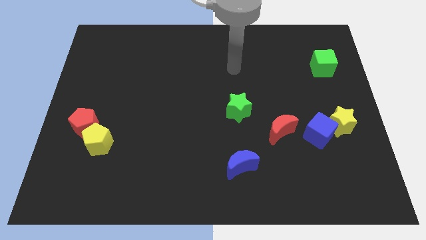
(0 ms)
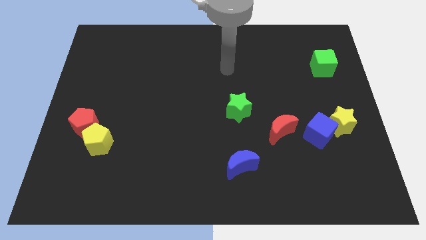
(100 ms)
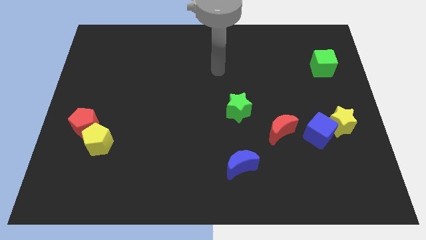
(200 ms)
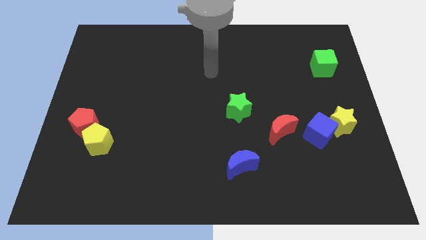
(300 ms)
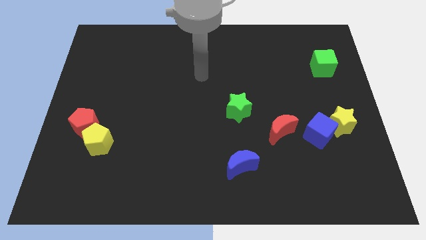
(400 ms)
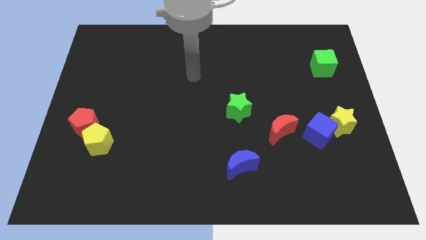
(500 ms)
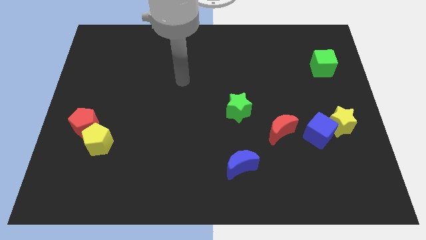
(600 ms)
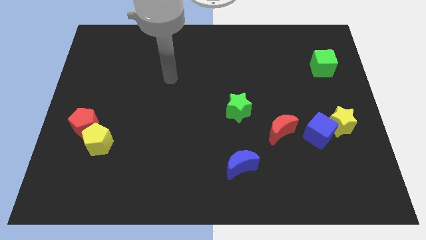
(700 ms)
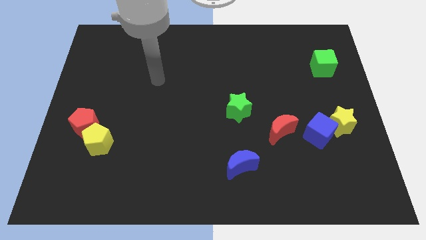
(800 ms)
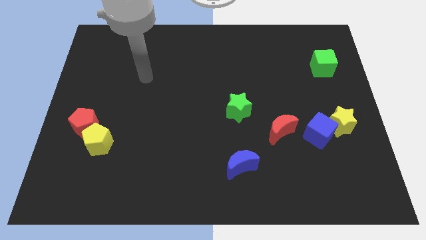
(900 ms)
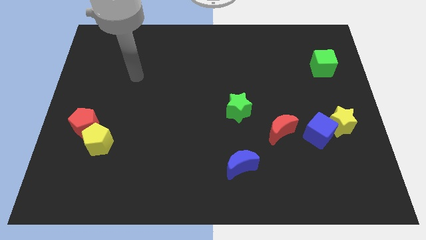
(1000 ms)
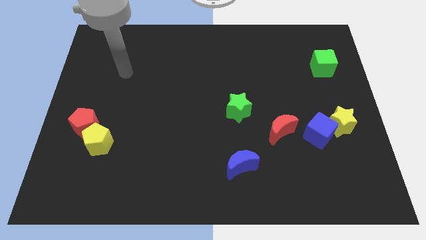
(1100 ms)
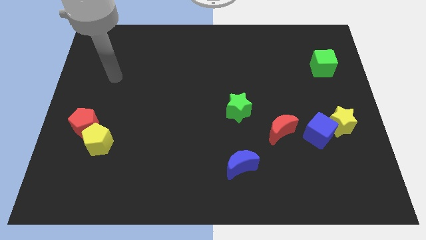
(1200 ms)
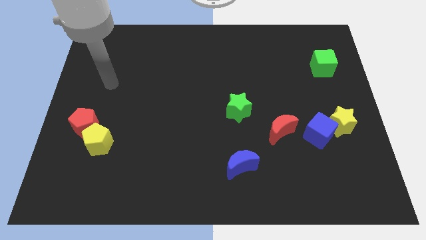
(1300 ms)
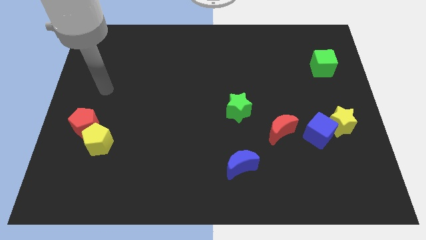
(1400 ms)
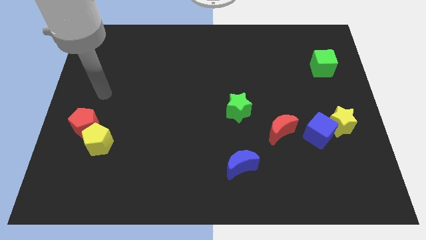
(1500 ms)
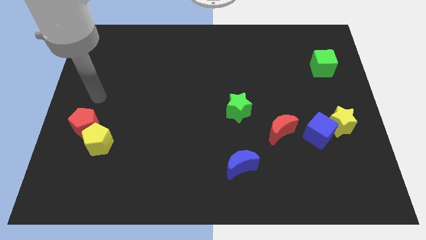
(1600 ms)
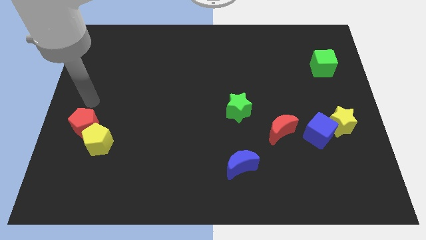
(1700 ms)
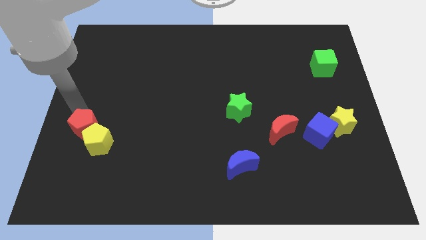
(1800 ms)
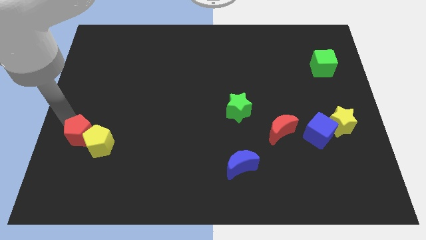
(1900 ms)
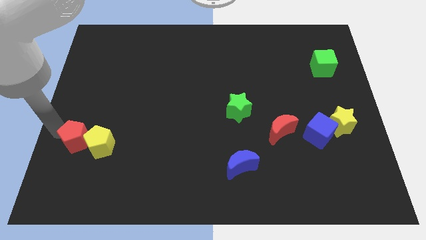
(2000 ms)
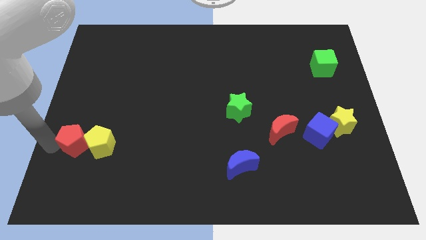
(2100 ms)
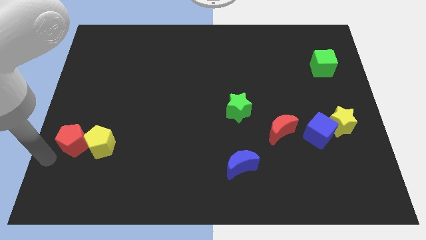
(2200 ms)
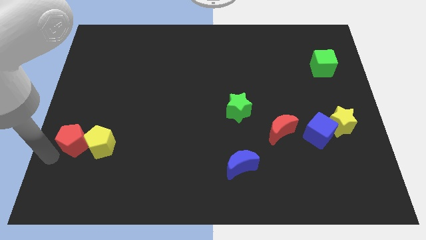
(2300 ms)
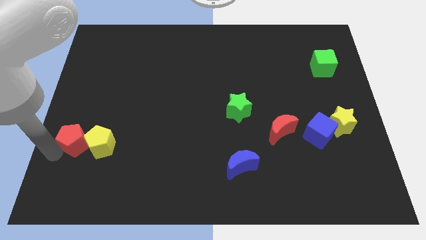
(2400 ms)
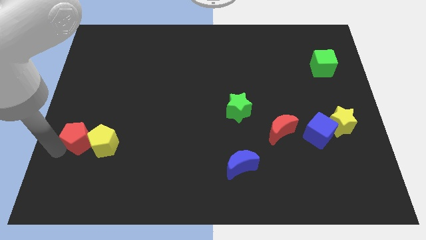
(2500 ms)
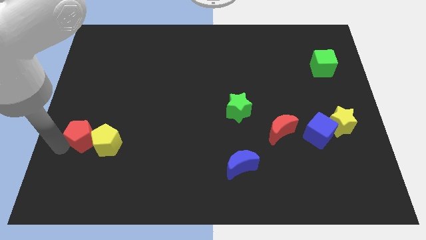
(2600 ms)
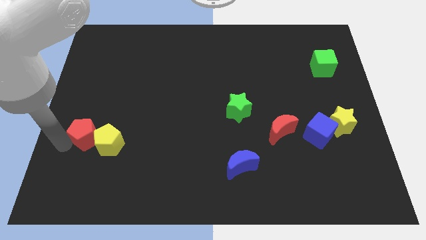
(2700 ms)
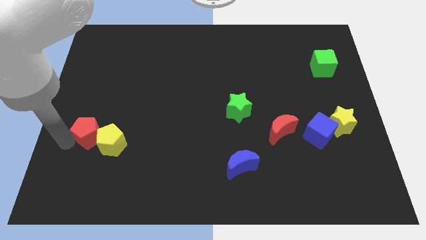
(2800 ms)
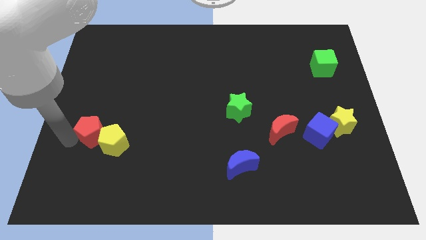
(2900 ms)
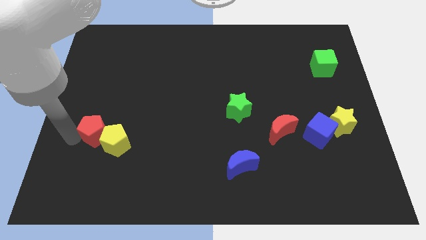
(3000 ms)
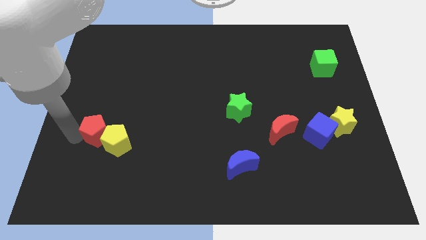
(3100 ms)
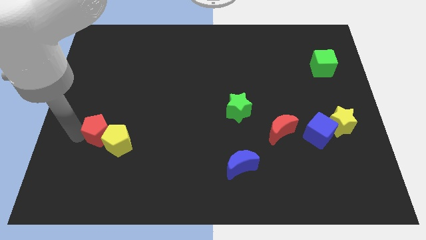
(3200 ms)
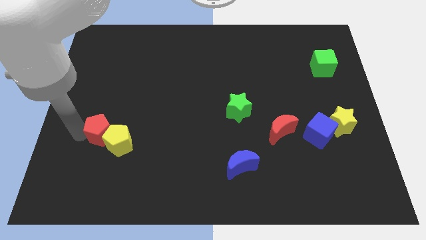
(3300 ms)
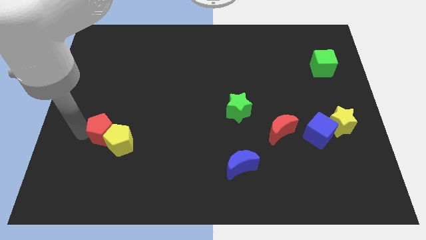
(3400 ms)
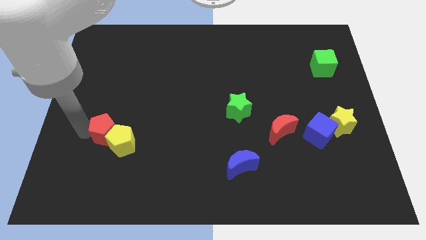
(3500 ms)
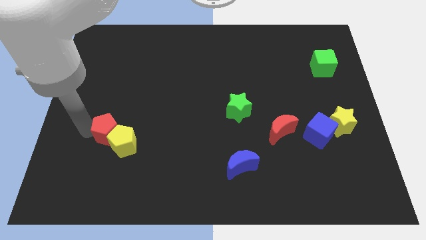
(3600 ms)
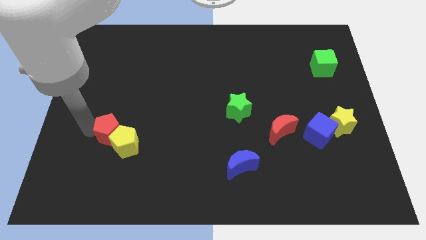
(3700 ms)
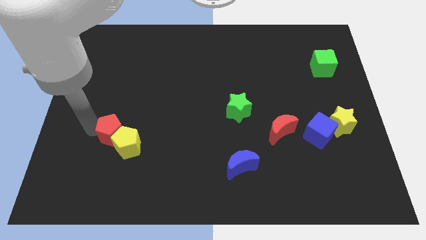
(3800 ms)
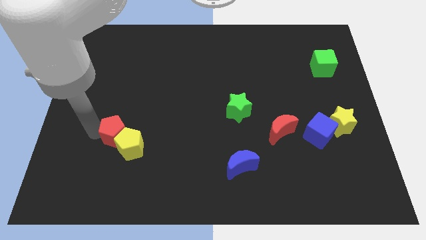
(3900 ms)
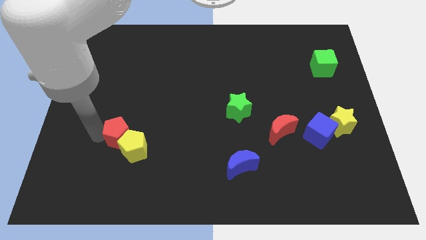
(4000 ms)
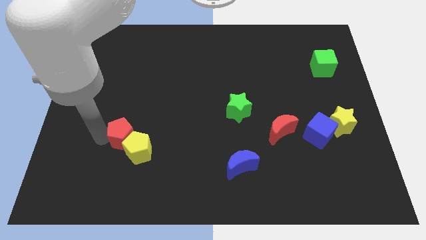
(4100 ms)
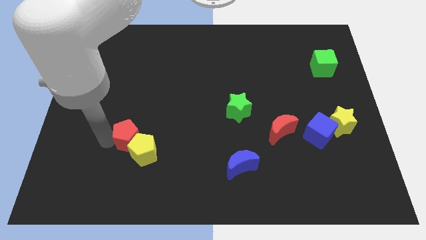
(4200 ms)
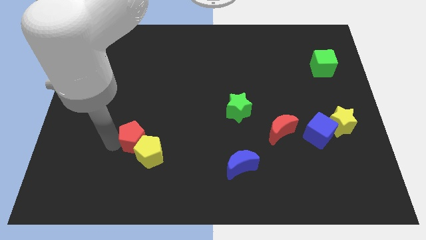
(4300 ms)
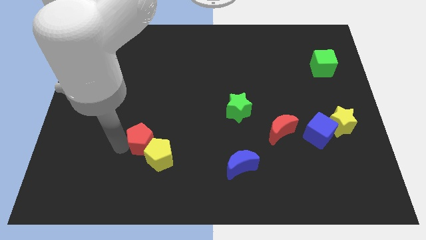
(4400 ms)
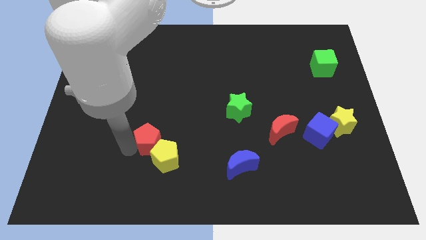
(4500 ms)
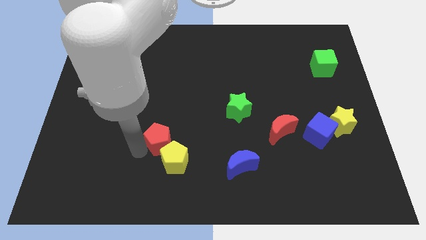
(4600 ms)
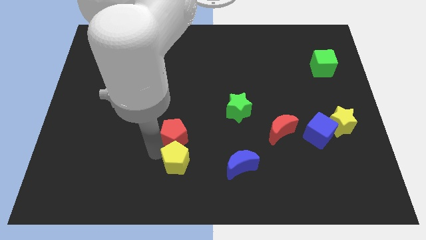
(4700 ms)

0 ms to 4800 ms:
move the red pentagon to the right

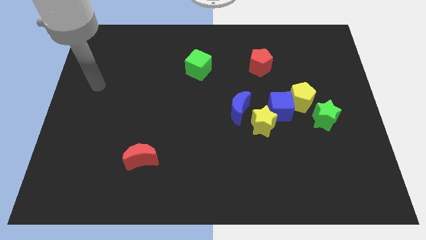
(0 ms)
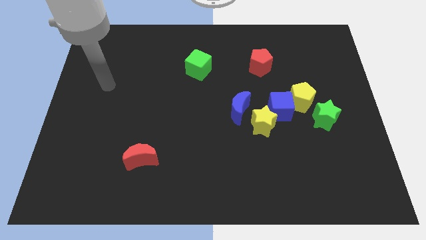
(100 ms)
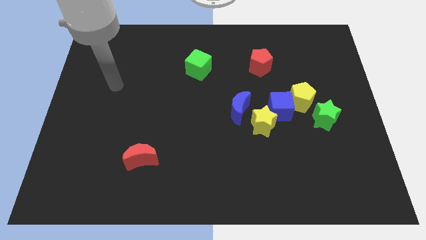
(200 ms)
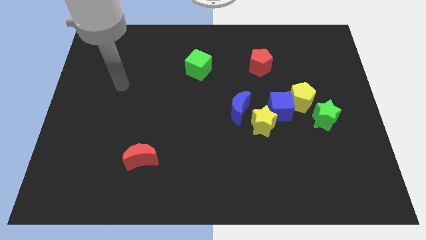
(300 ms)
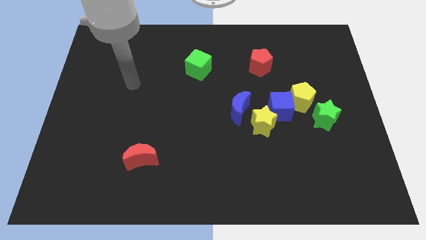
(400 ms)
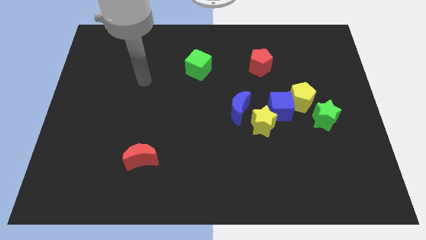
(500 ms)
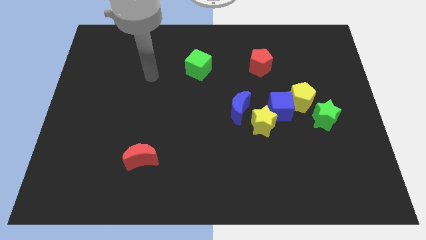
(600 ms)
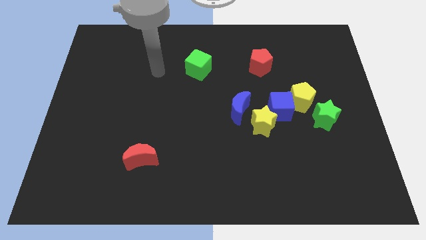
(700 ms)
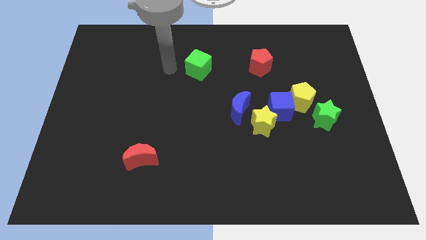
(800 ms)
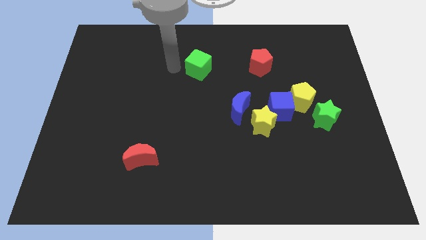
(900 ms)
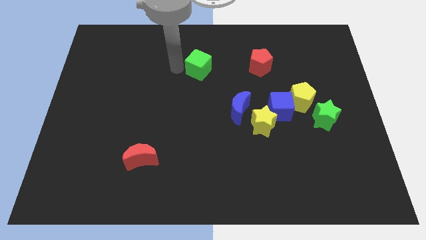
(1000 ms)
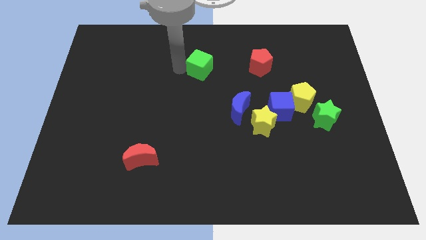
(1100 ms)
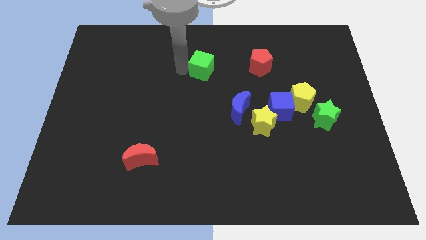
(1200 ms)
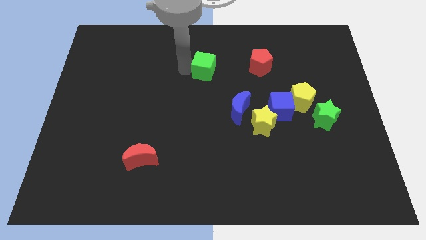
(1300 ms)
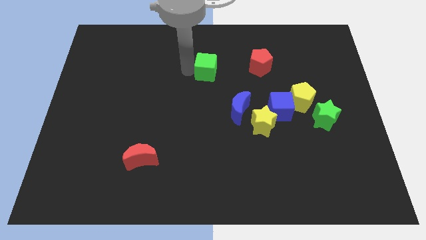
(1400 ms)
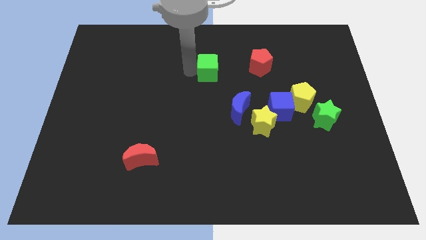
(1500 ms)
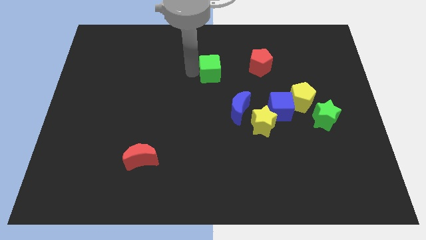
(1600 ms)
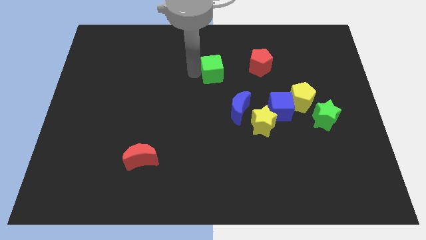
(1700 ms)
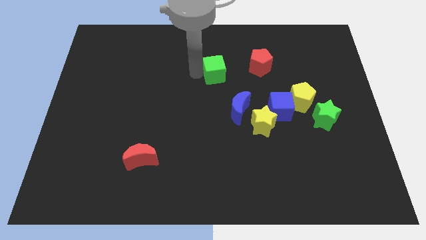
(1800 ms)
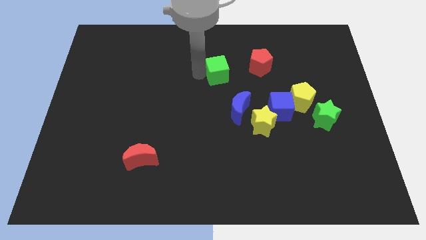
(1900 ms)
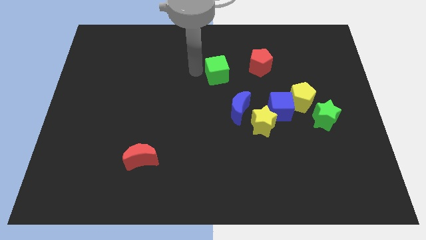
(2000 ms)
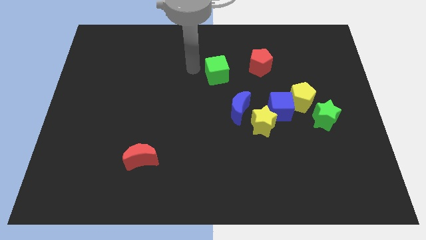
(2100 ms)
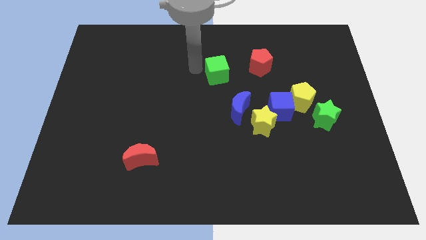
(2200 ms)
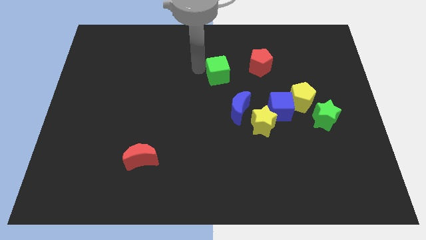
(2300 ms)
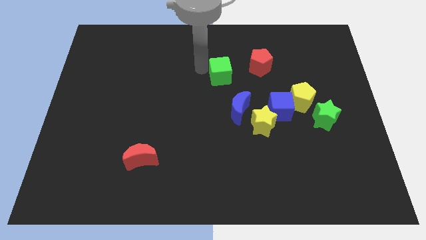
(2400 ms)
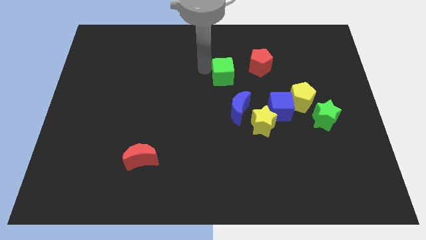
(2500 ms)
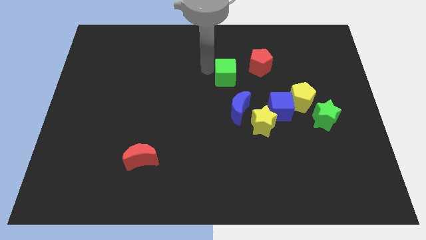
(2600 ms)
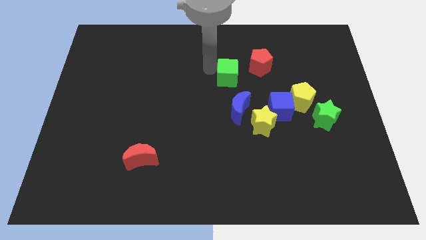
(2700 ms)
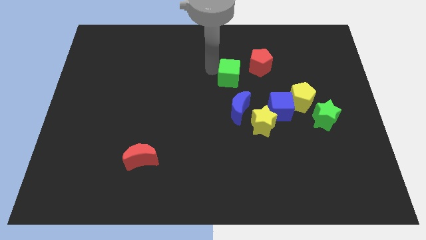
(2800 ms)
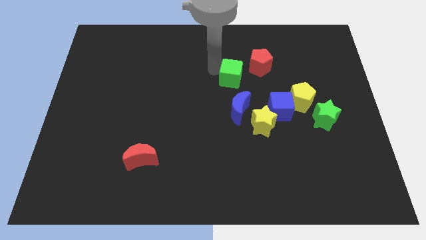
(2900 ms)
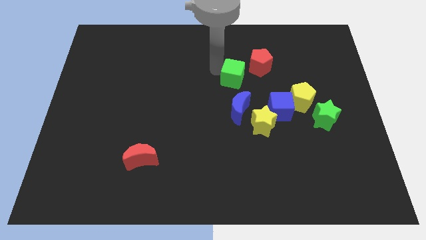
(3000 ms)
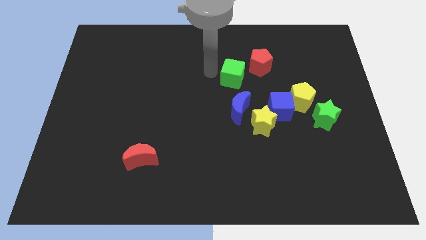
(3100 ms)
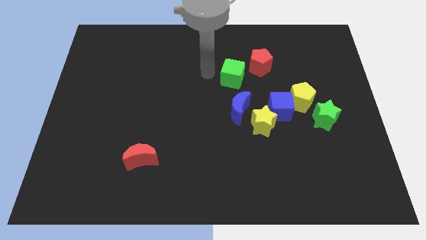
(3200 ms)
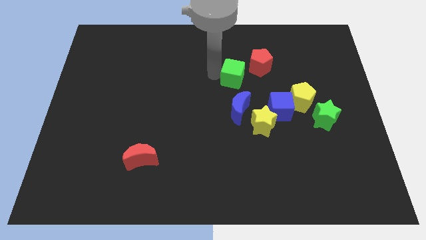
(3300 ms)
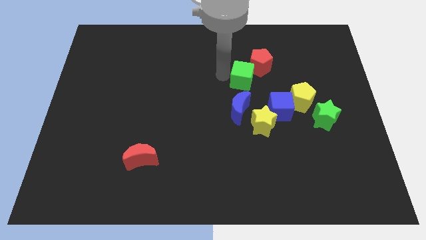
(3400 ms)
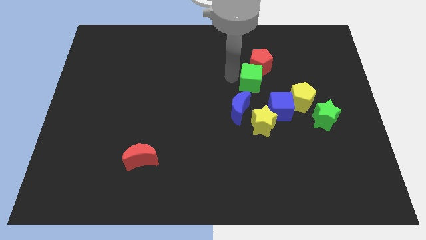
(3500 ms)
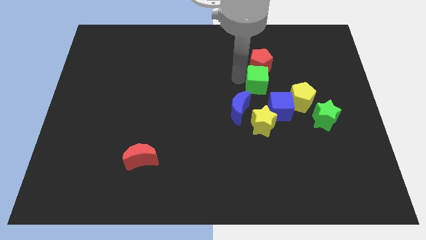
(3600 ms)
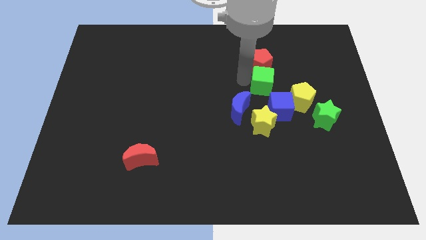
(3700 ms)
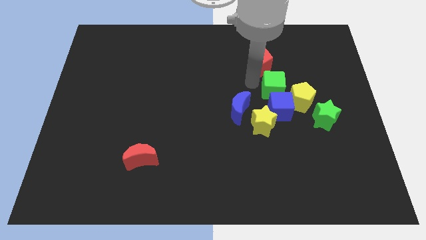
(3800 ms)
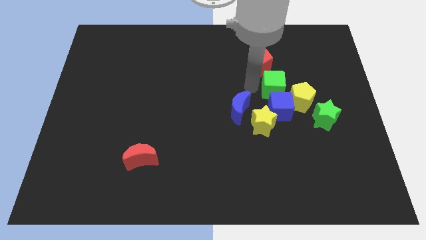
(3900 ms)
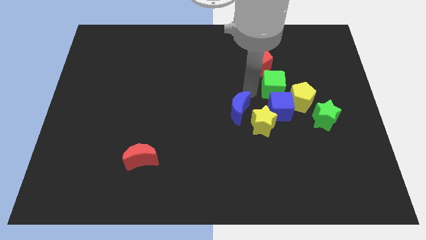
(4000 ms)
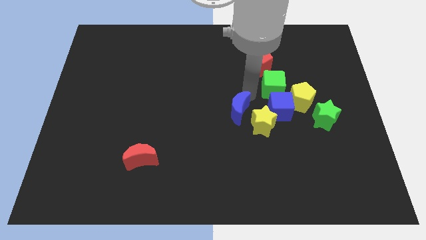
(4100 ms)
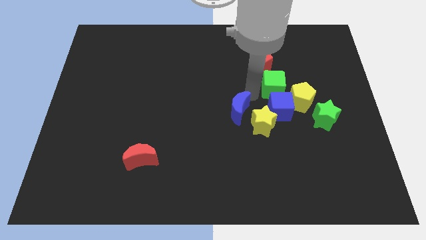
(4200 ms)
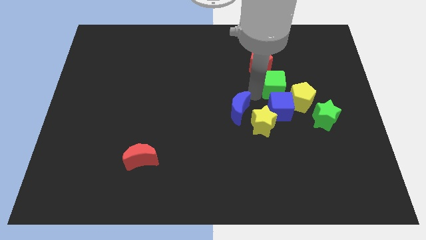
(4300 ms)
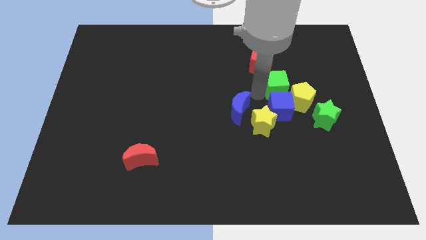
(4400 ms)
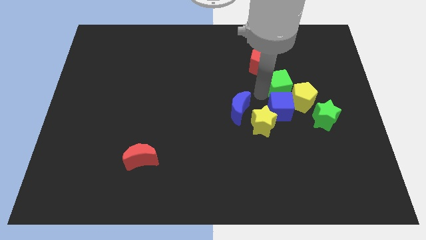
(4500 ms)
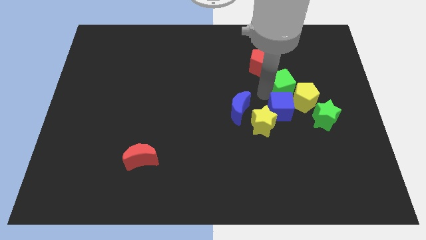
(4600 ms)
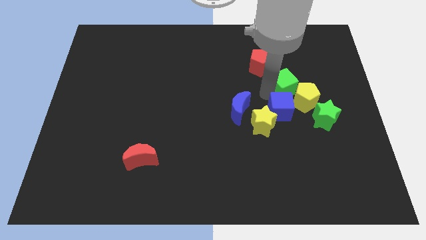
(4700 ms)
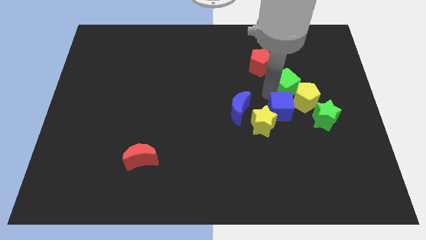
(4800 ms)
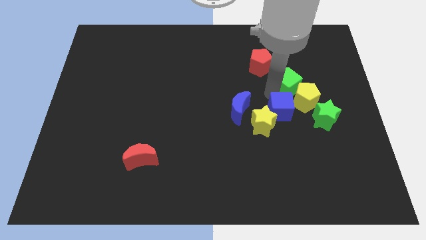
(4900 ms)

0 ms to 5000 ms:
slide the green cube right
